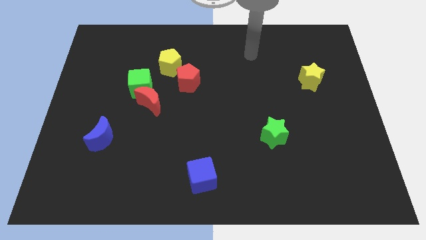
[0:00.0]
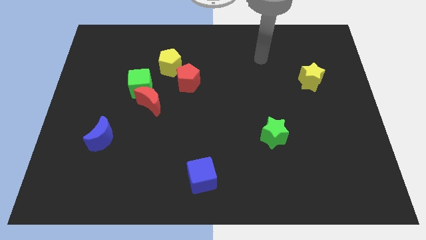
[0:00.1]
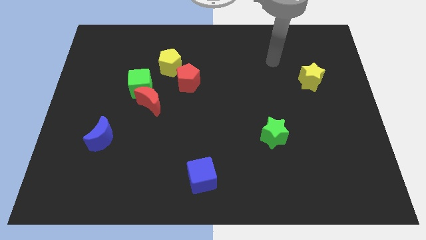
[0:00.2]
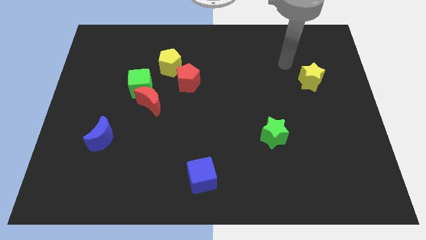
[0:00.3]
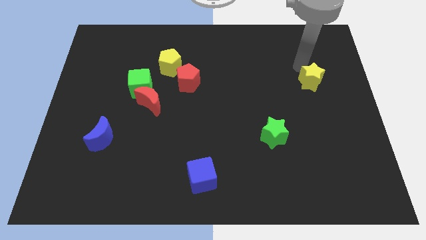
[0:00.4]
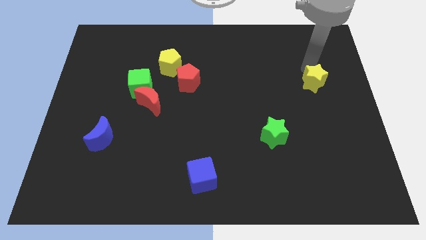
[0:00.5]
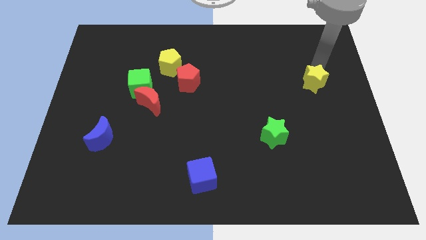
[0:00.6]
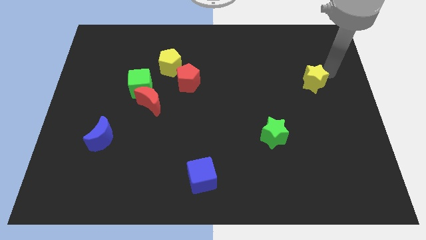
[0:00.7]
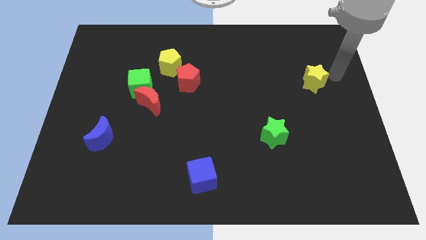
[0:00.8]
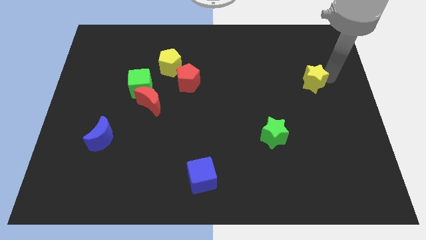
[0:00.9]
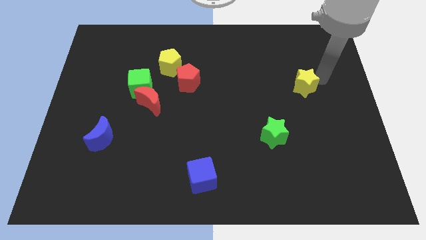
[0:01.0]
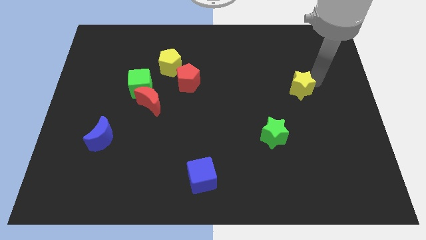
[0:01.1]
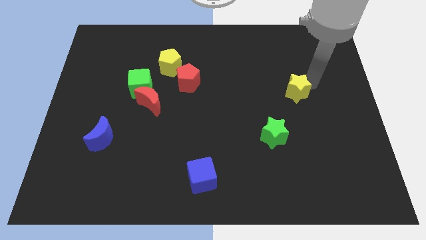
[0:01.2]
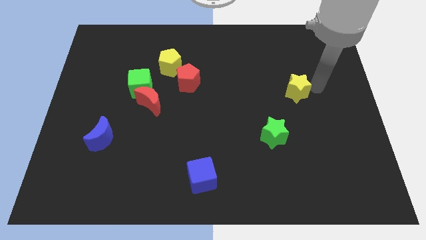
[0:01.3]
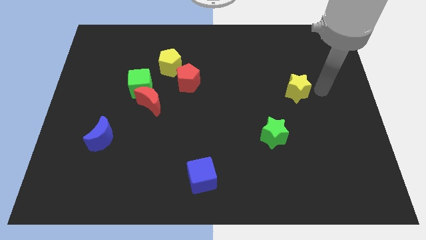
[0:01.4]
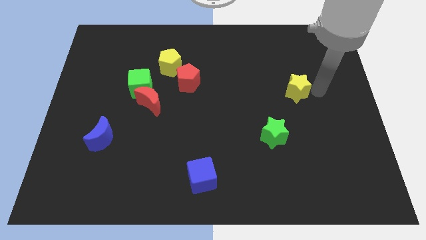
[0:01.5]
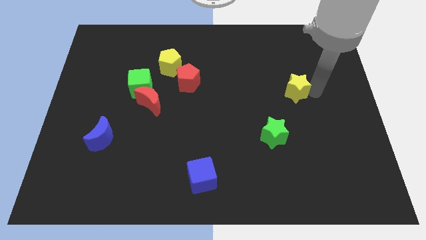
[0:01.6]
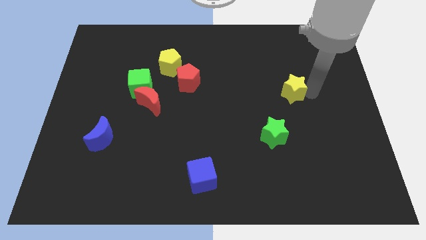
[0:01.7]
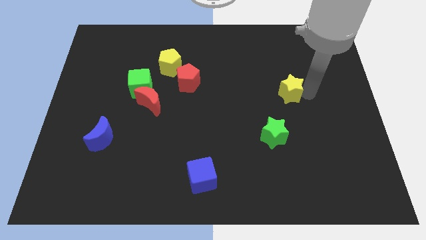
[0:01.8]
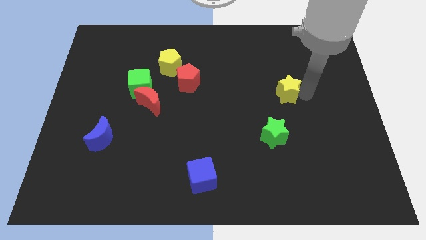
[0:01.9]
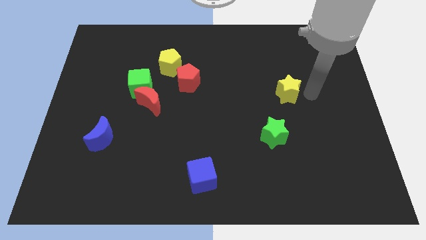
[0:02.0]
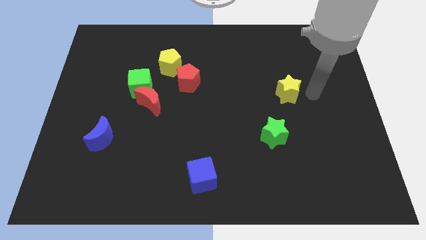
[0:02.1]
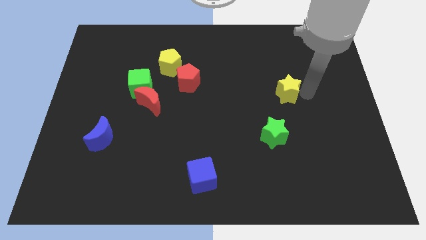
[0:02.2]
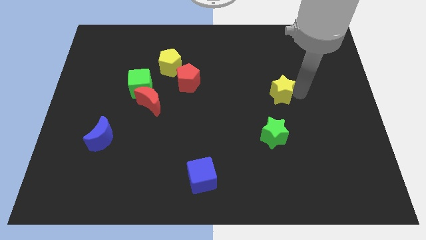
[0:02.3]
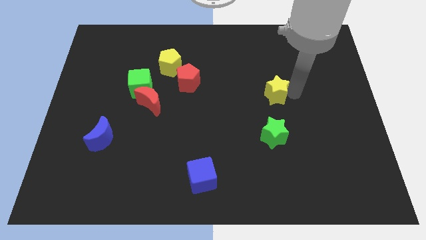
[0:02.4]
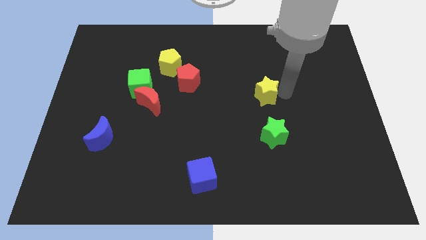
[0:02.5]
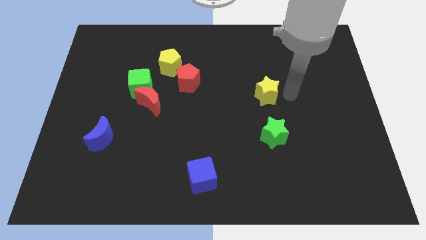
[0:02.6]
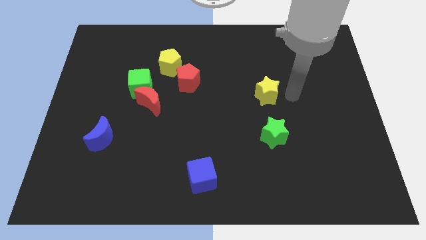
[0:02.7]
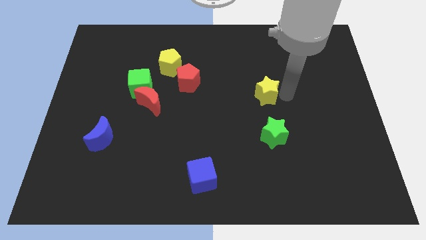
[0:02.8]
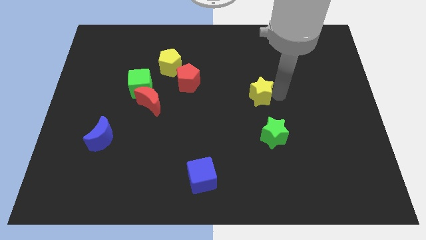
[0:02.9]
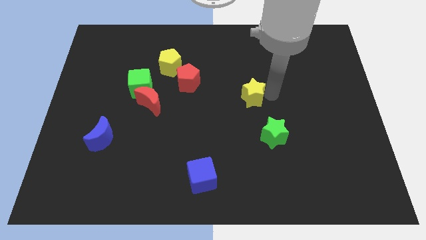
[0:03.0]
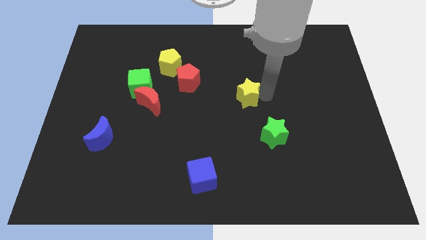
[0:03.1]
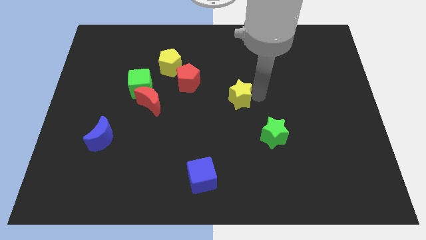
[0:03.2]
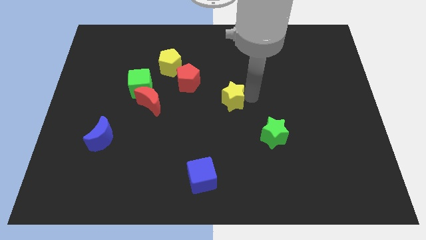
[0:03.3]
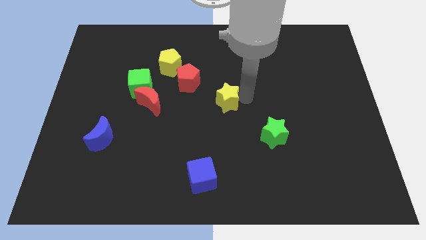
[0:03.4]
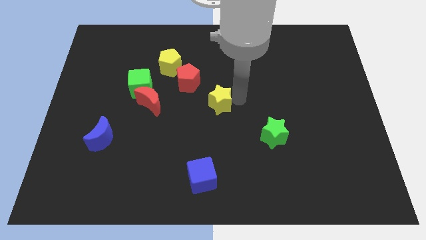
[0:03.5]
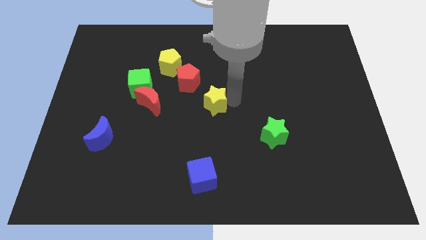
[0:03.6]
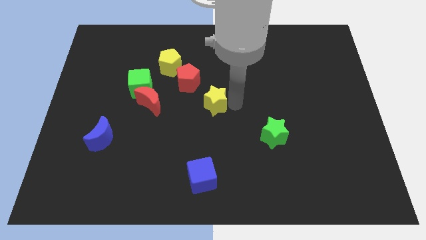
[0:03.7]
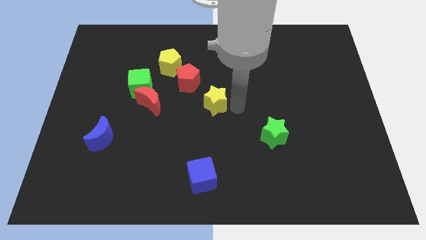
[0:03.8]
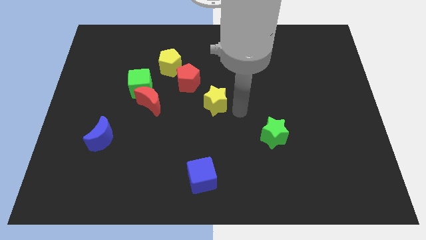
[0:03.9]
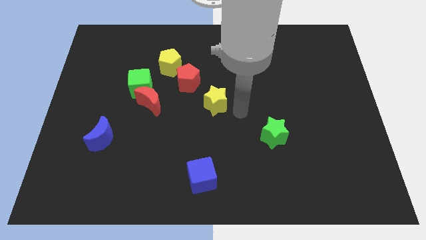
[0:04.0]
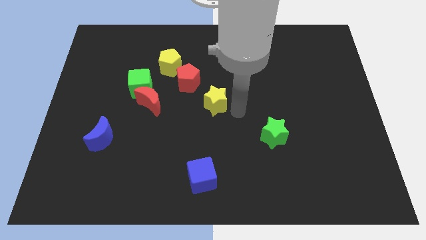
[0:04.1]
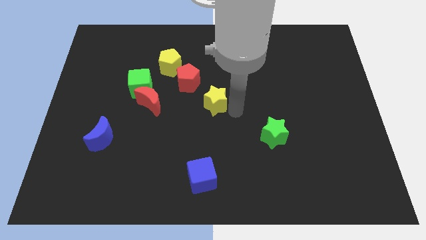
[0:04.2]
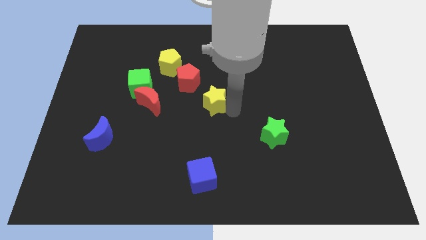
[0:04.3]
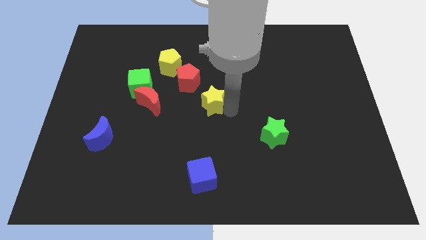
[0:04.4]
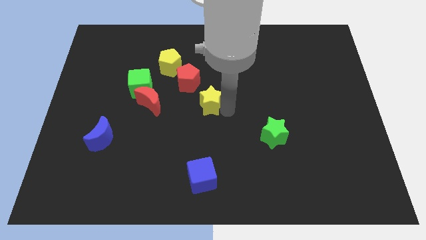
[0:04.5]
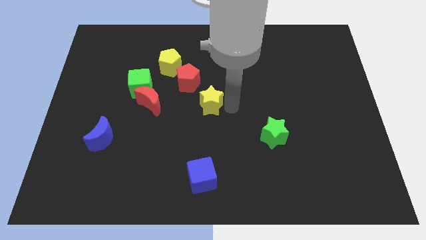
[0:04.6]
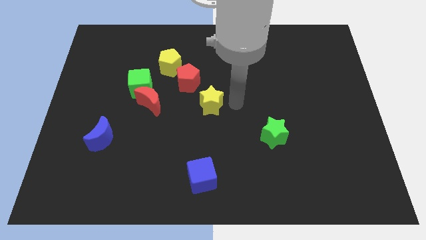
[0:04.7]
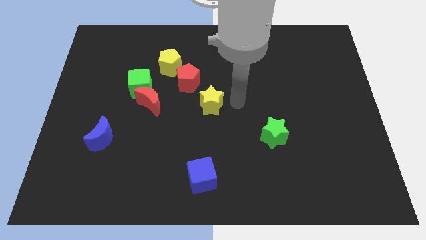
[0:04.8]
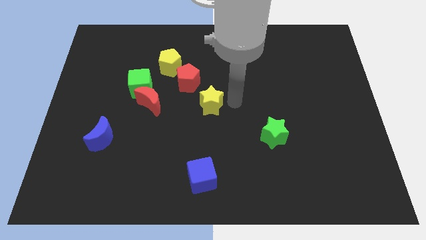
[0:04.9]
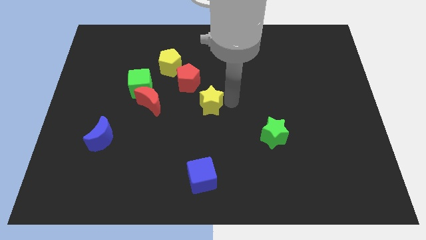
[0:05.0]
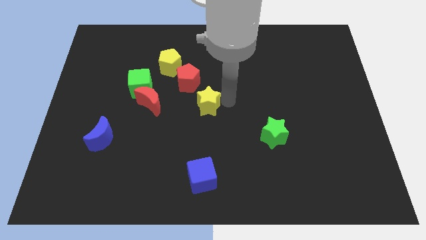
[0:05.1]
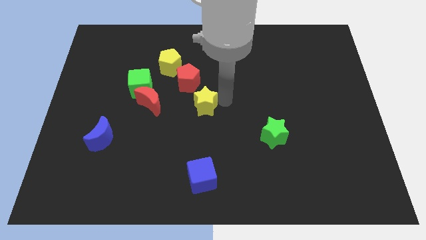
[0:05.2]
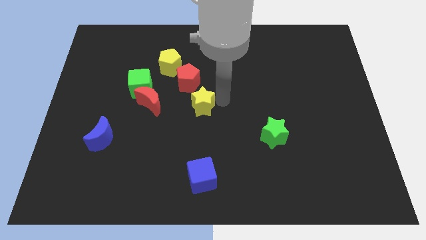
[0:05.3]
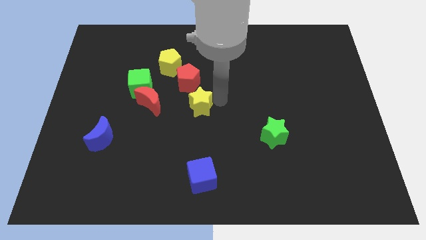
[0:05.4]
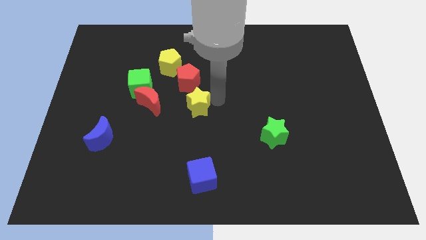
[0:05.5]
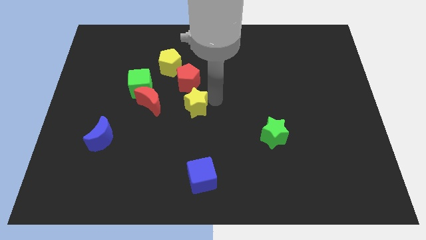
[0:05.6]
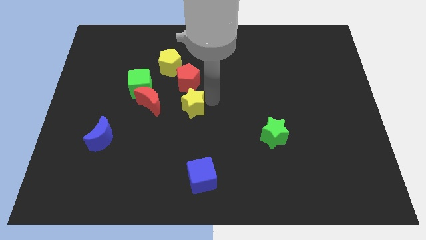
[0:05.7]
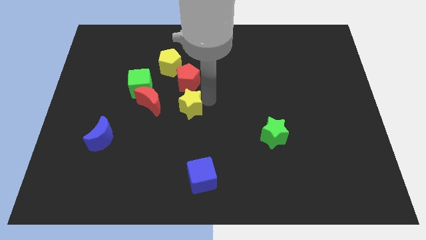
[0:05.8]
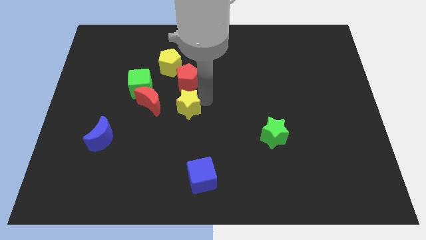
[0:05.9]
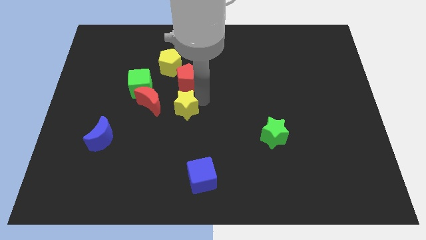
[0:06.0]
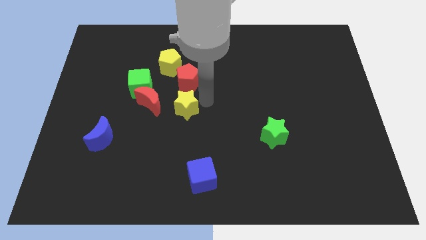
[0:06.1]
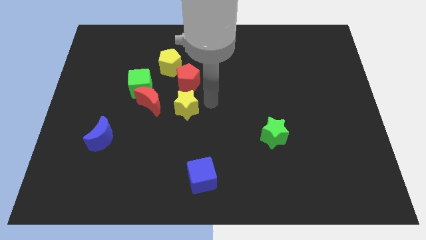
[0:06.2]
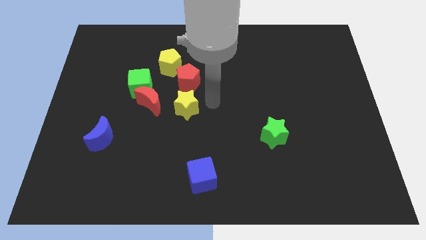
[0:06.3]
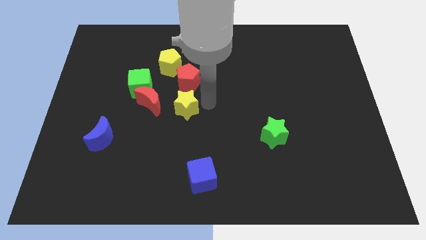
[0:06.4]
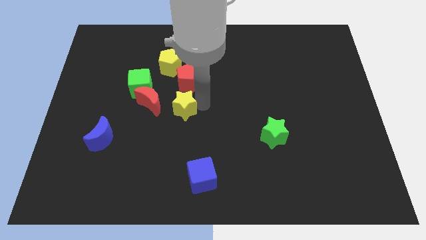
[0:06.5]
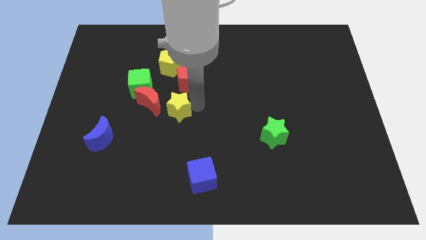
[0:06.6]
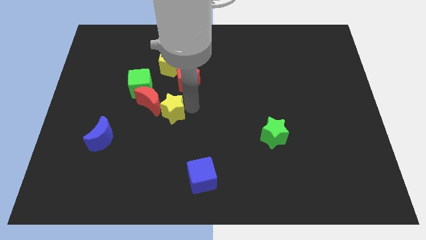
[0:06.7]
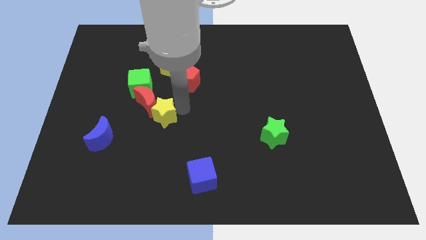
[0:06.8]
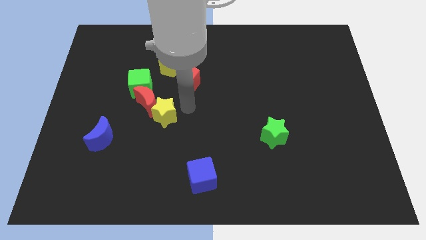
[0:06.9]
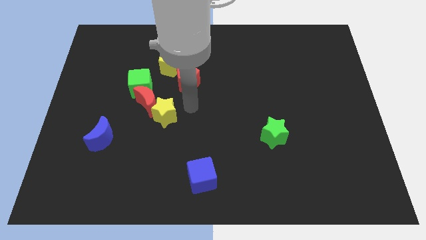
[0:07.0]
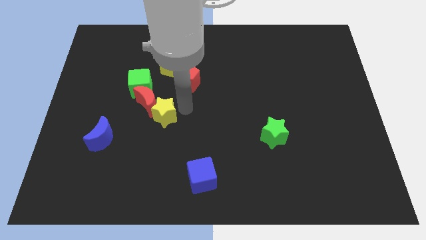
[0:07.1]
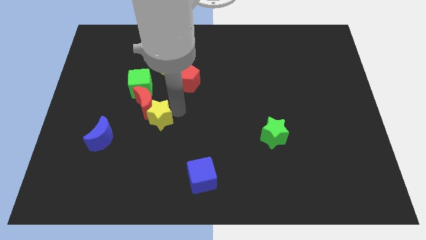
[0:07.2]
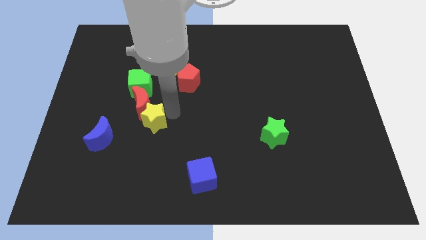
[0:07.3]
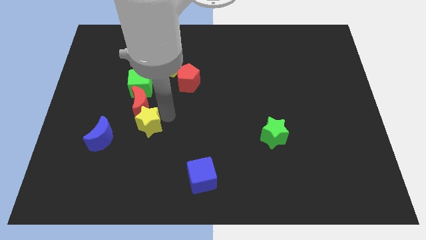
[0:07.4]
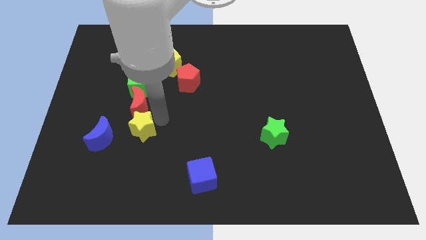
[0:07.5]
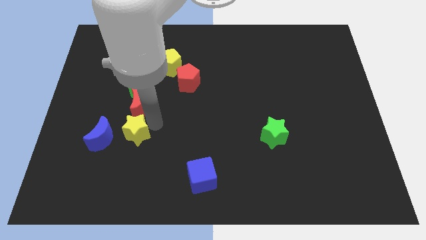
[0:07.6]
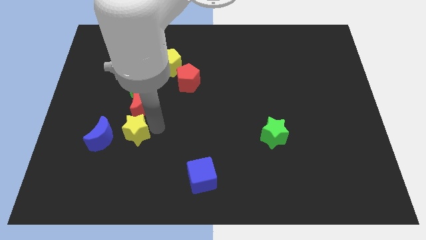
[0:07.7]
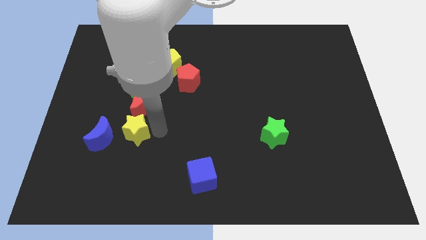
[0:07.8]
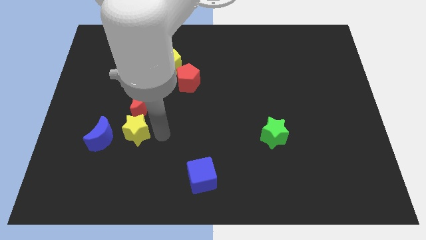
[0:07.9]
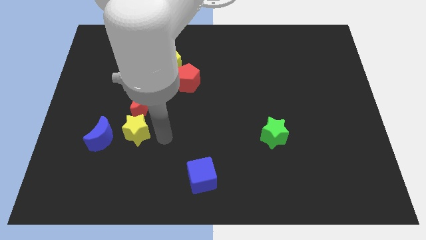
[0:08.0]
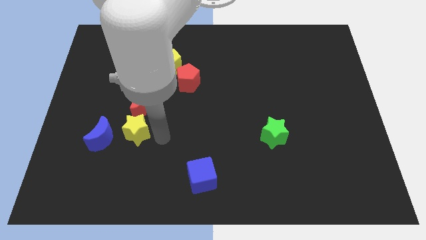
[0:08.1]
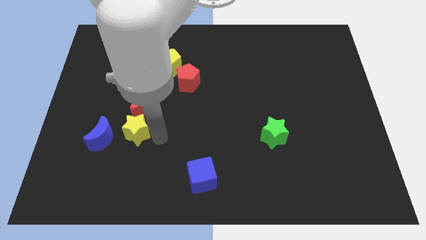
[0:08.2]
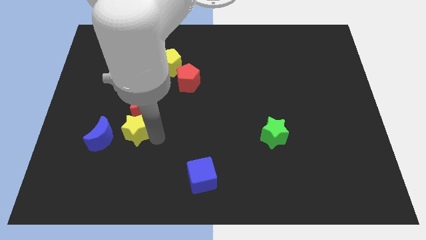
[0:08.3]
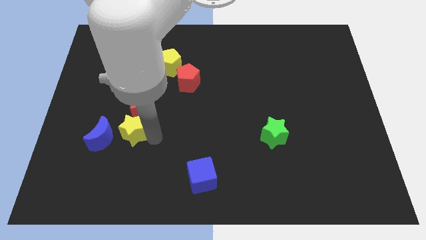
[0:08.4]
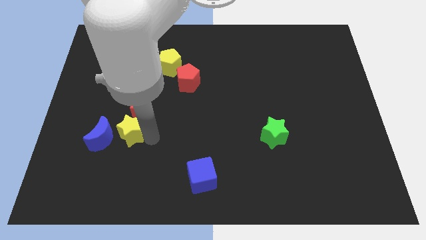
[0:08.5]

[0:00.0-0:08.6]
push the yellow star towards the blue moon
